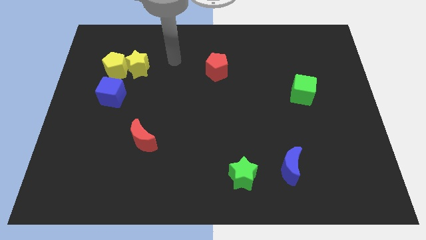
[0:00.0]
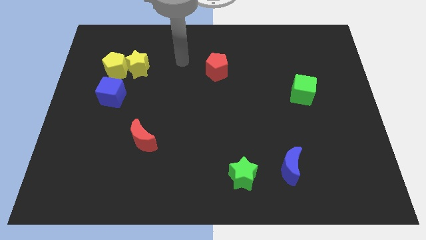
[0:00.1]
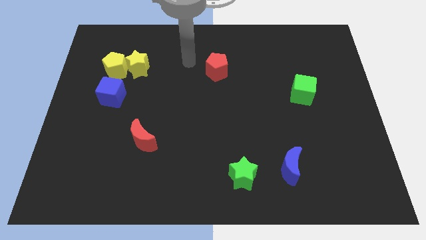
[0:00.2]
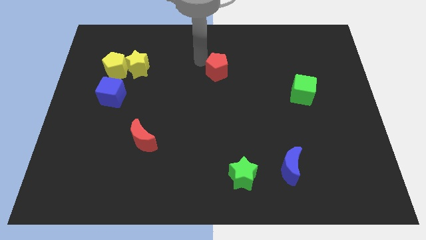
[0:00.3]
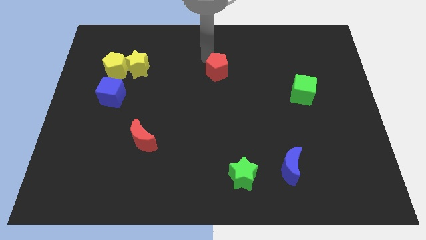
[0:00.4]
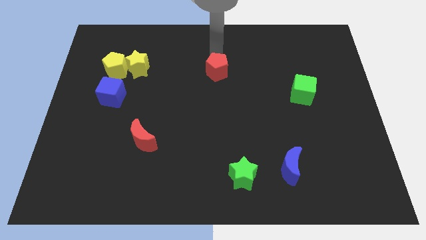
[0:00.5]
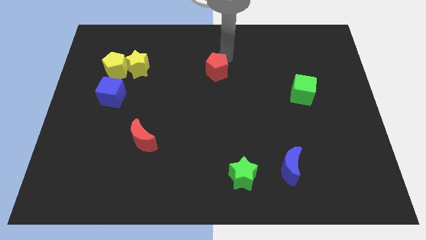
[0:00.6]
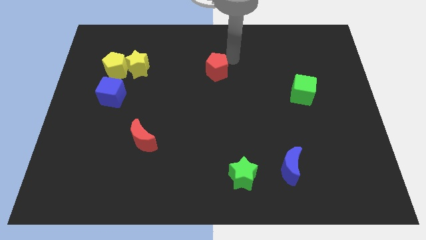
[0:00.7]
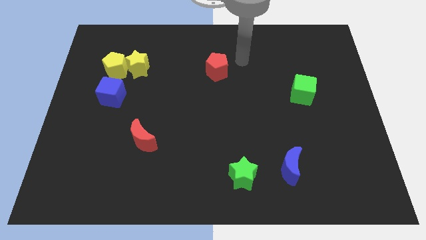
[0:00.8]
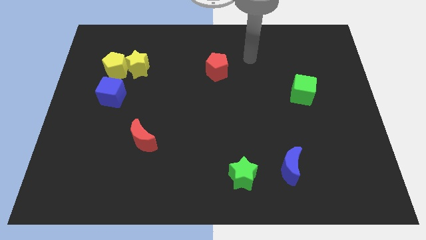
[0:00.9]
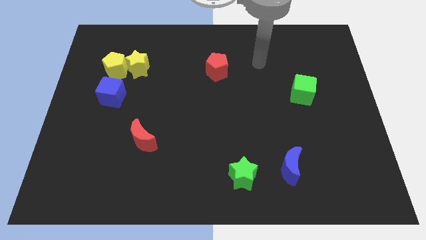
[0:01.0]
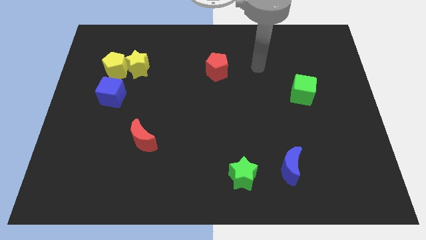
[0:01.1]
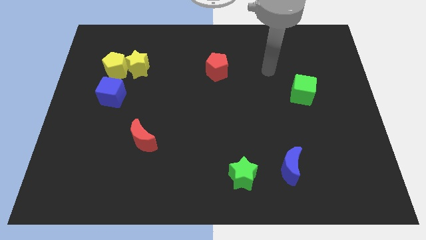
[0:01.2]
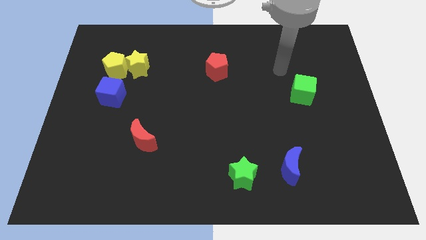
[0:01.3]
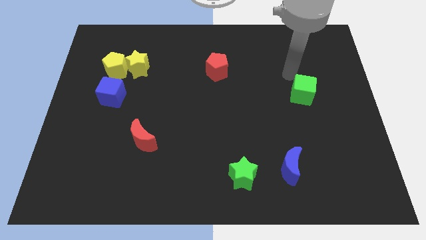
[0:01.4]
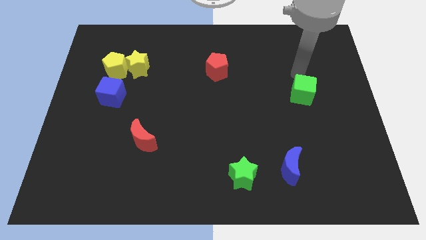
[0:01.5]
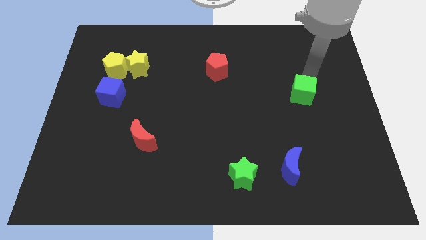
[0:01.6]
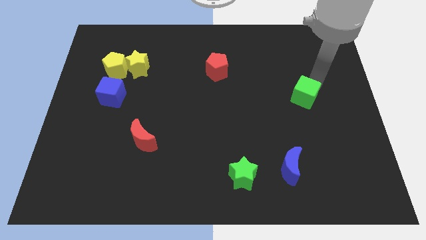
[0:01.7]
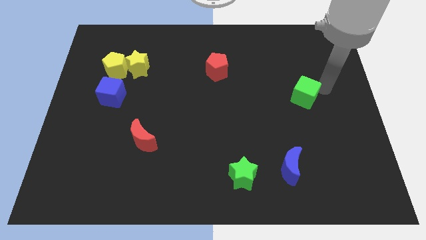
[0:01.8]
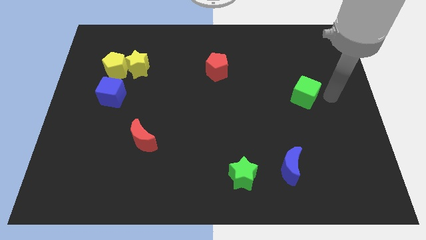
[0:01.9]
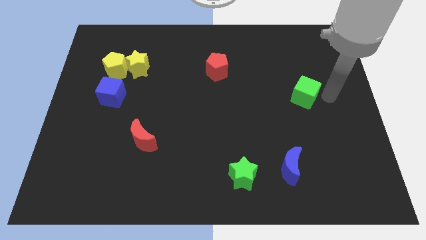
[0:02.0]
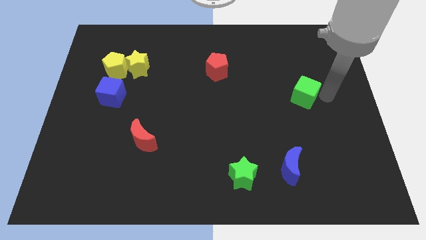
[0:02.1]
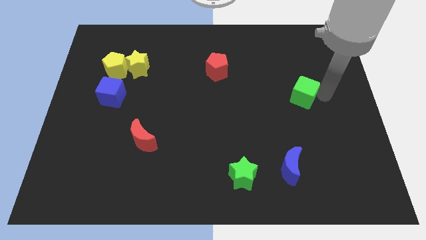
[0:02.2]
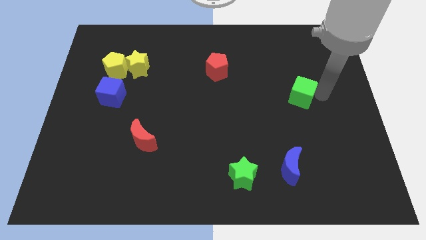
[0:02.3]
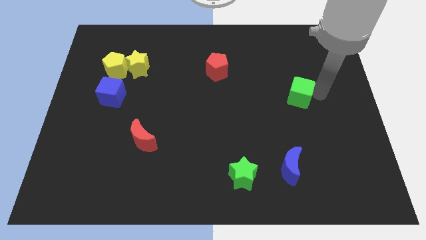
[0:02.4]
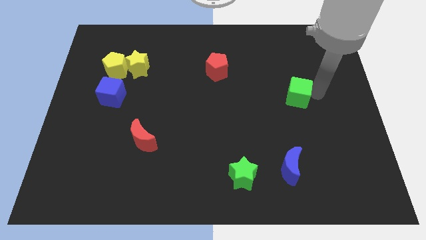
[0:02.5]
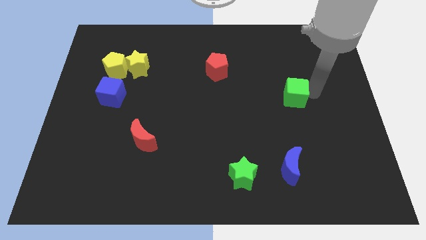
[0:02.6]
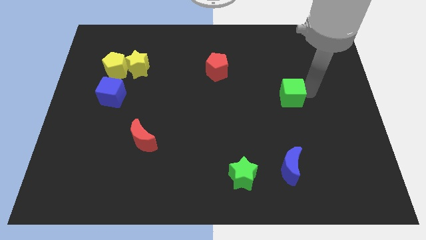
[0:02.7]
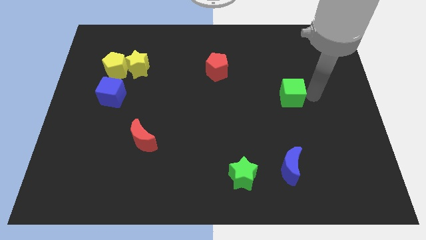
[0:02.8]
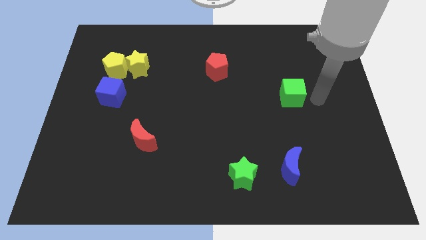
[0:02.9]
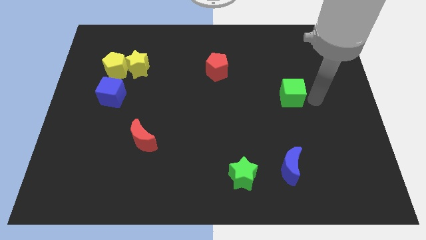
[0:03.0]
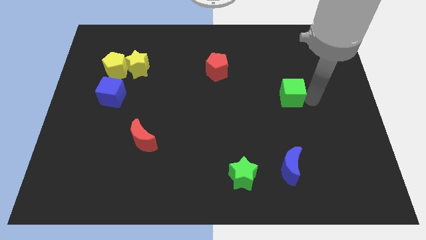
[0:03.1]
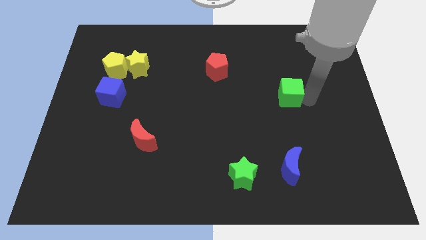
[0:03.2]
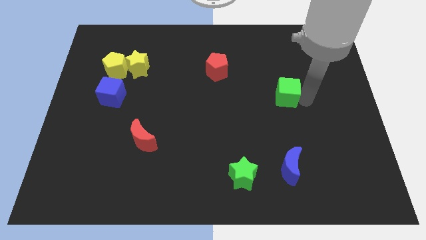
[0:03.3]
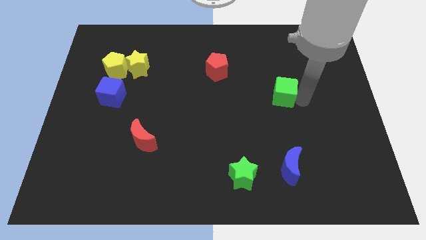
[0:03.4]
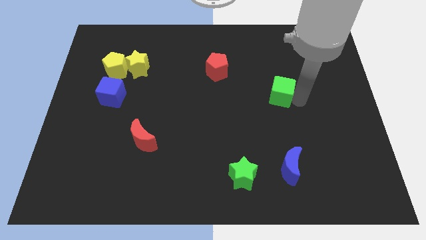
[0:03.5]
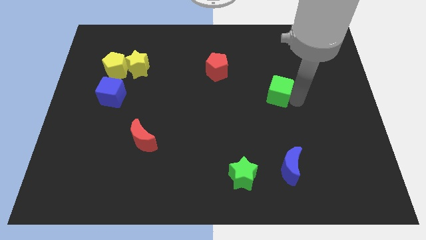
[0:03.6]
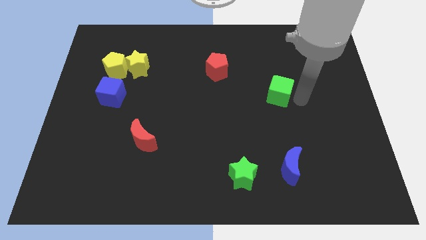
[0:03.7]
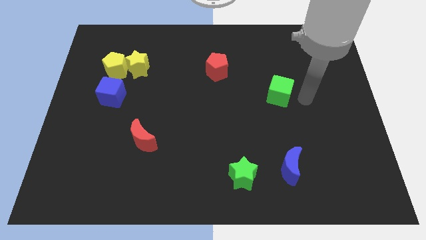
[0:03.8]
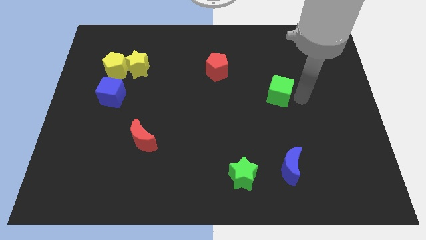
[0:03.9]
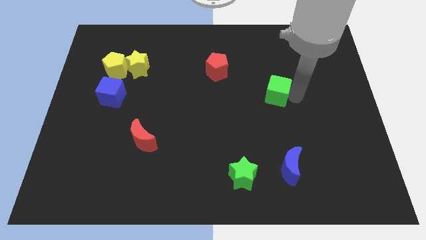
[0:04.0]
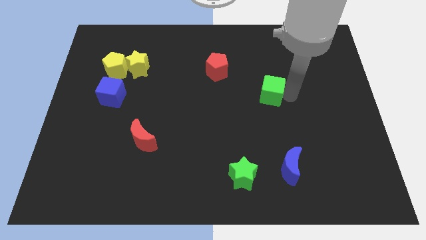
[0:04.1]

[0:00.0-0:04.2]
move the green cube somewhat to the left

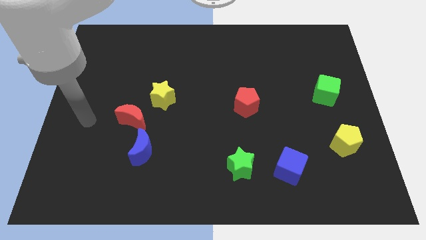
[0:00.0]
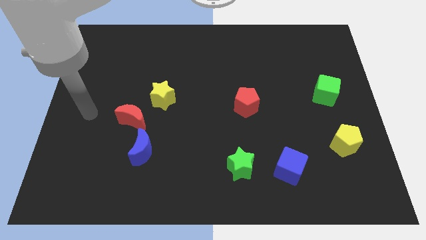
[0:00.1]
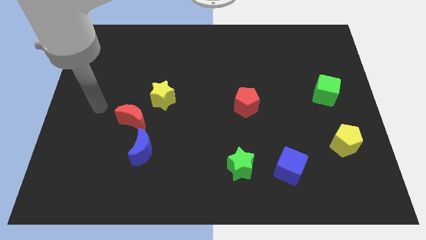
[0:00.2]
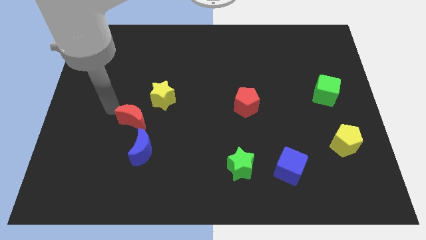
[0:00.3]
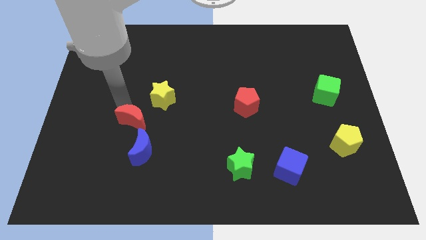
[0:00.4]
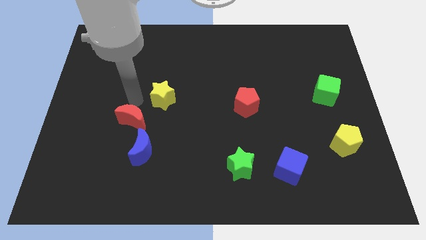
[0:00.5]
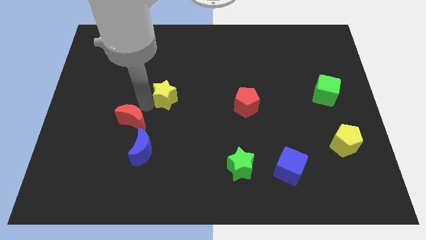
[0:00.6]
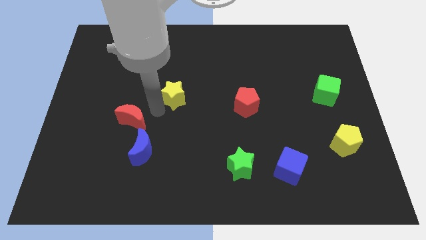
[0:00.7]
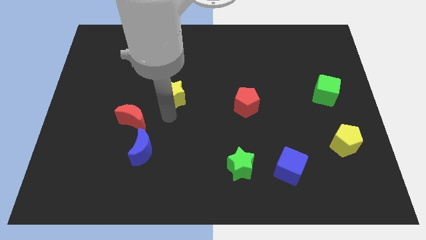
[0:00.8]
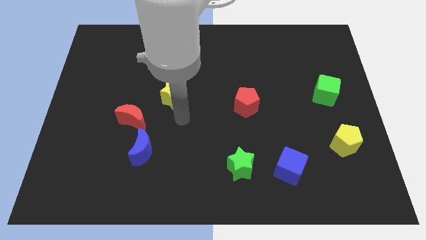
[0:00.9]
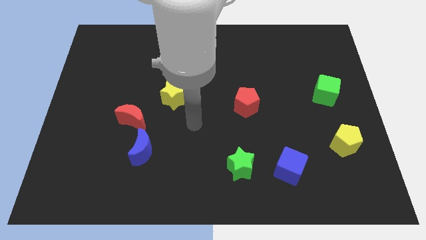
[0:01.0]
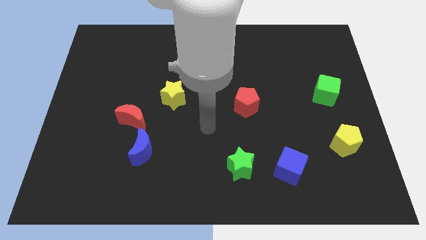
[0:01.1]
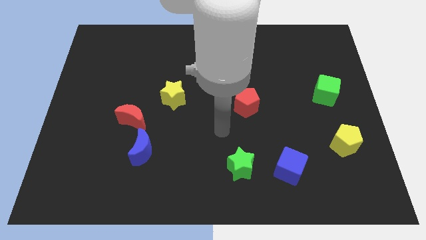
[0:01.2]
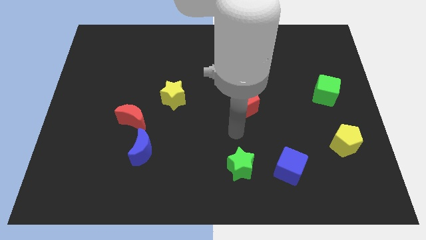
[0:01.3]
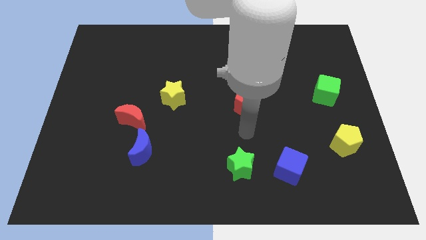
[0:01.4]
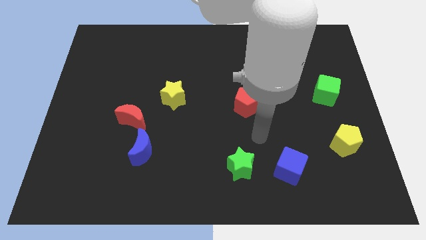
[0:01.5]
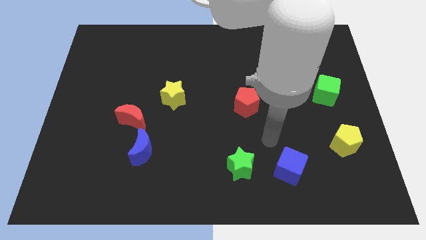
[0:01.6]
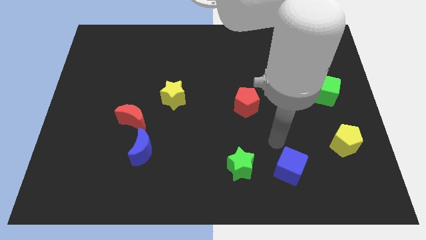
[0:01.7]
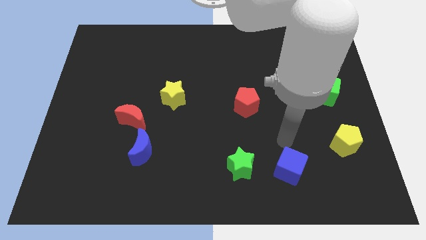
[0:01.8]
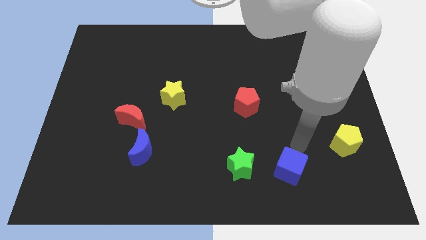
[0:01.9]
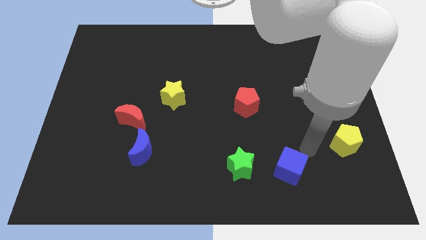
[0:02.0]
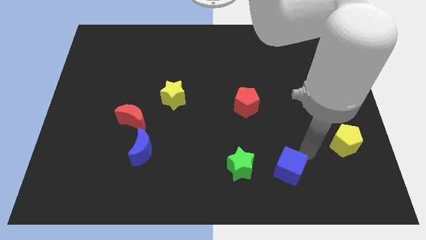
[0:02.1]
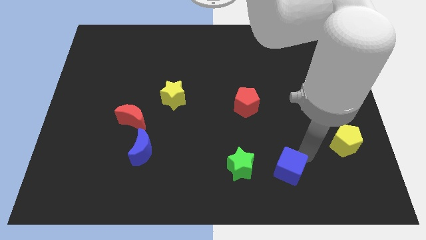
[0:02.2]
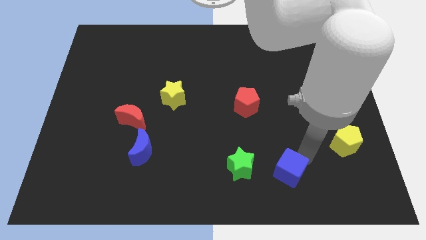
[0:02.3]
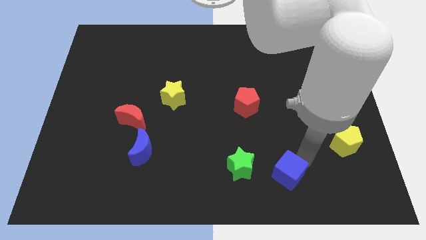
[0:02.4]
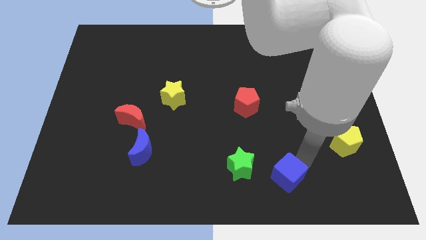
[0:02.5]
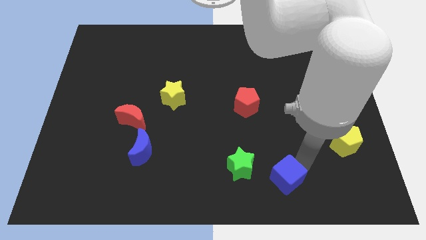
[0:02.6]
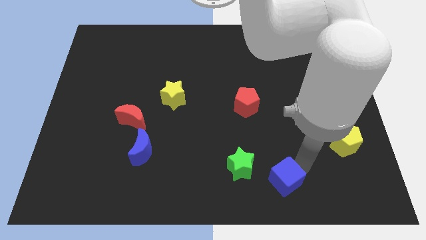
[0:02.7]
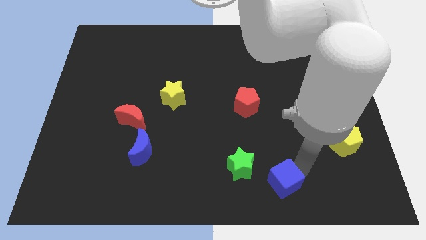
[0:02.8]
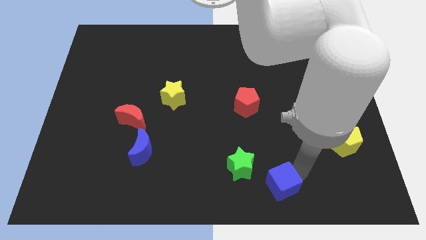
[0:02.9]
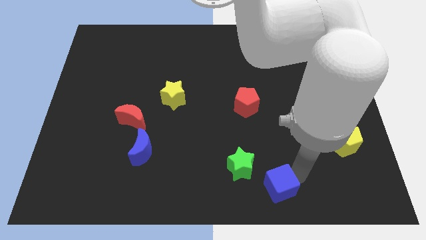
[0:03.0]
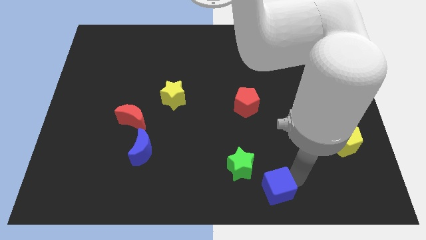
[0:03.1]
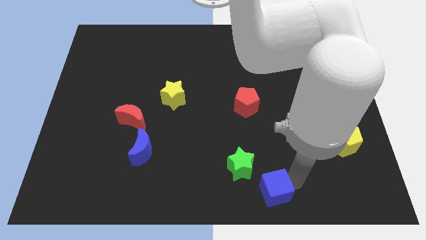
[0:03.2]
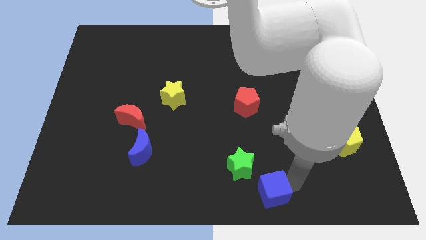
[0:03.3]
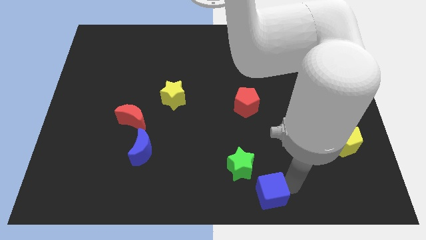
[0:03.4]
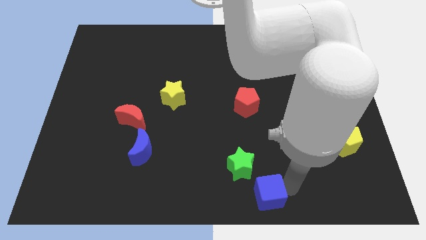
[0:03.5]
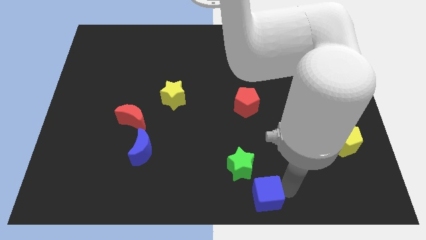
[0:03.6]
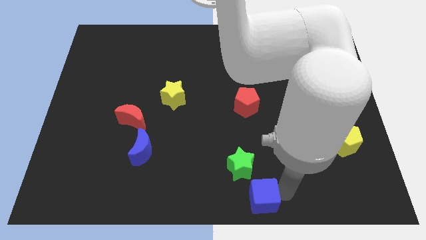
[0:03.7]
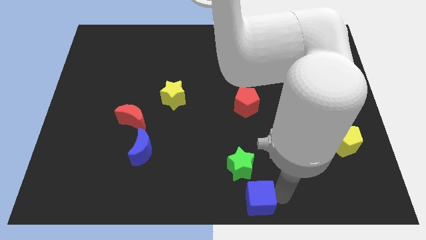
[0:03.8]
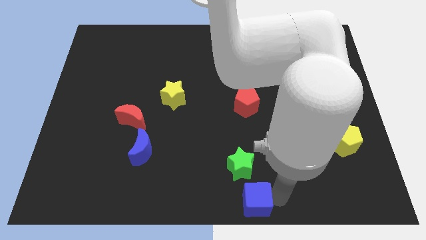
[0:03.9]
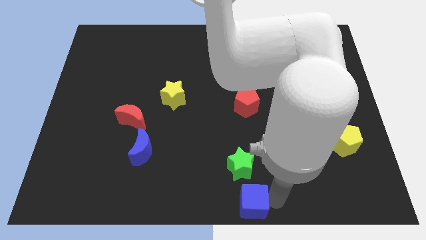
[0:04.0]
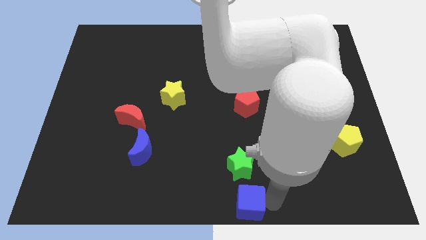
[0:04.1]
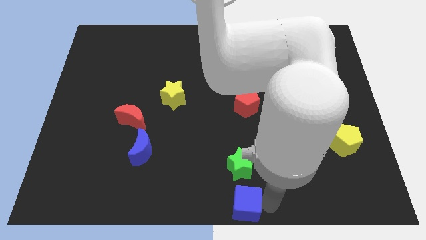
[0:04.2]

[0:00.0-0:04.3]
push the blue cube slightly to the left
